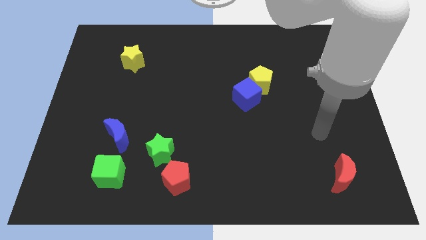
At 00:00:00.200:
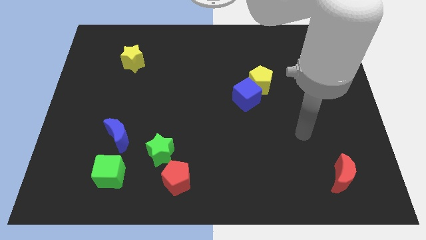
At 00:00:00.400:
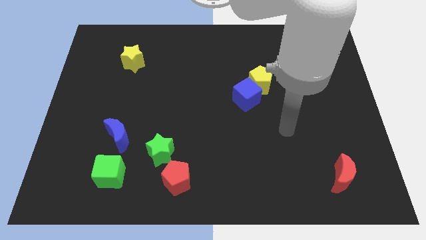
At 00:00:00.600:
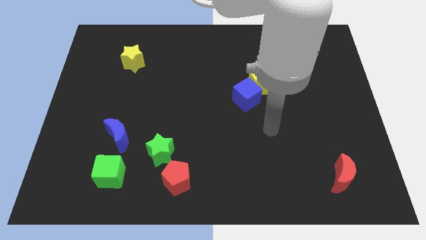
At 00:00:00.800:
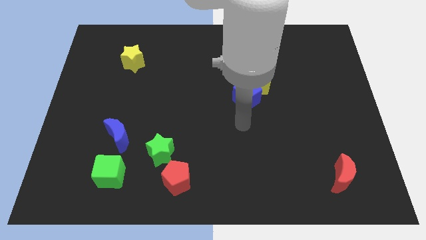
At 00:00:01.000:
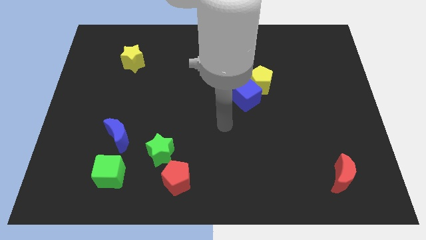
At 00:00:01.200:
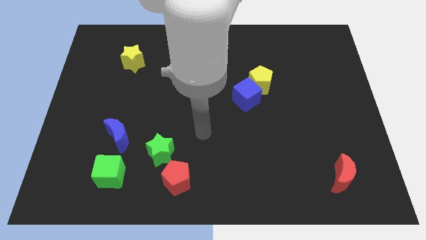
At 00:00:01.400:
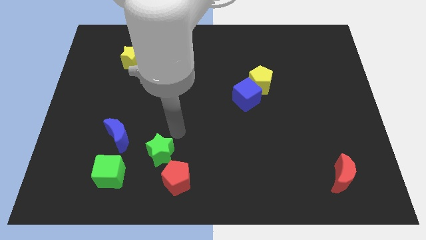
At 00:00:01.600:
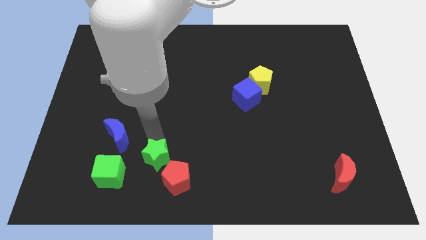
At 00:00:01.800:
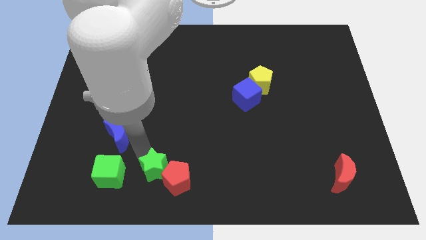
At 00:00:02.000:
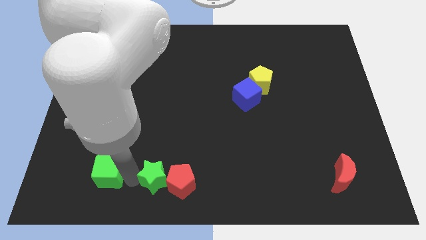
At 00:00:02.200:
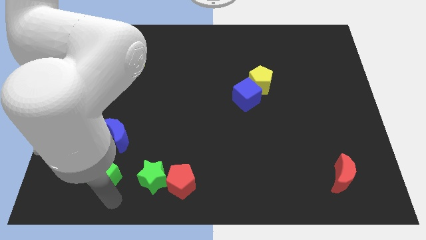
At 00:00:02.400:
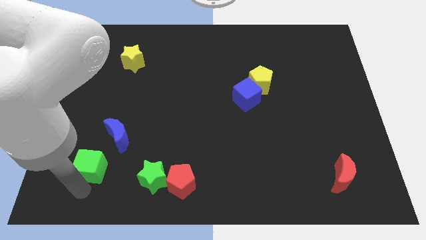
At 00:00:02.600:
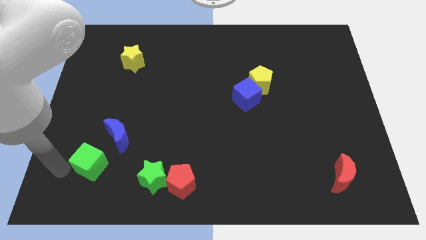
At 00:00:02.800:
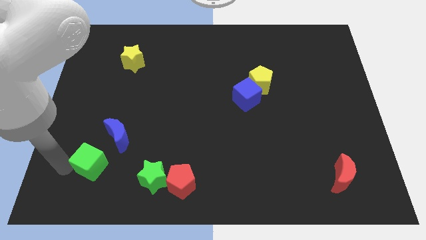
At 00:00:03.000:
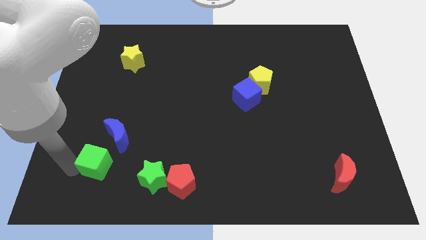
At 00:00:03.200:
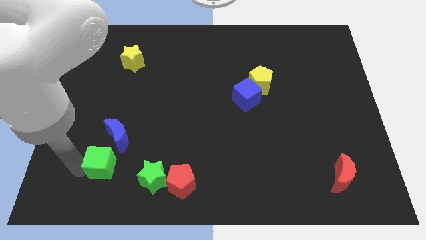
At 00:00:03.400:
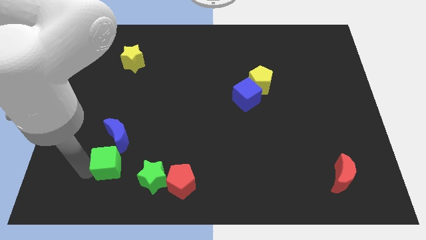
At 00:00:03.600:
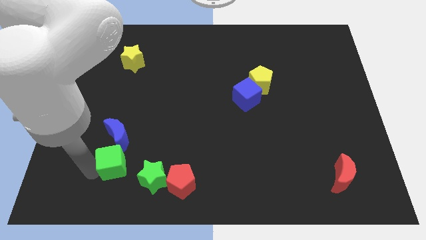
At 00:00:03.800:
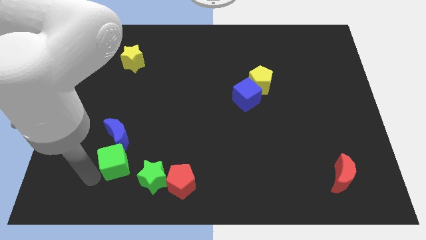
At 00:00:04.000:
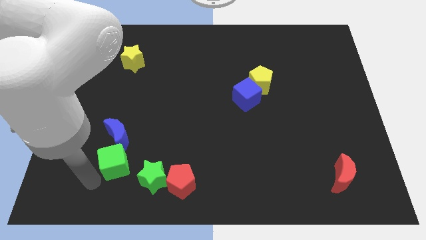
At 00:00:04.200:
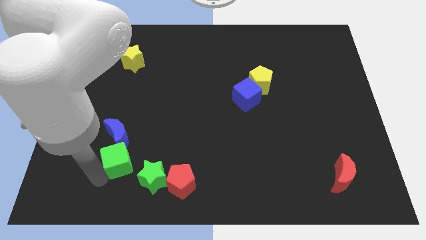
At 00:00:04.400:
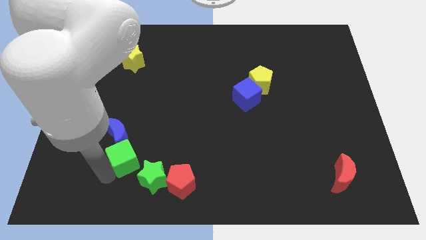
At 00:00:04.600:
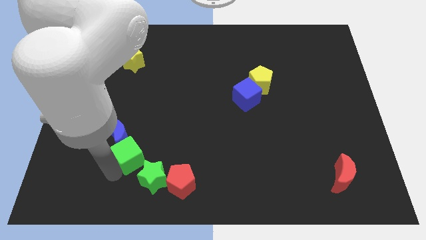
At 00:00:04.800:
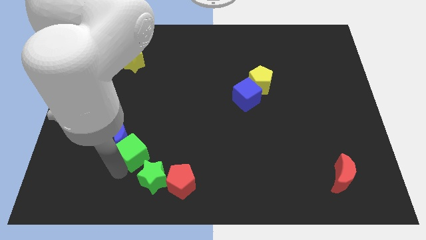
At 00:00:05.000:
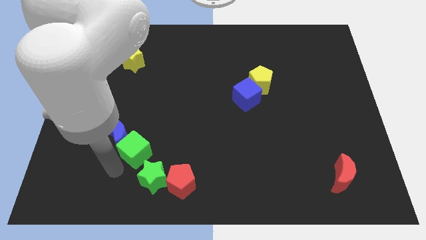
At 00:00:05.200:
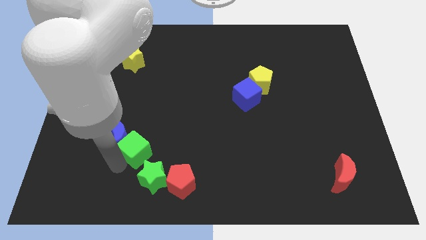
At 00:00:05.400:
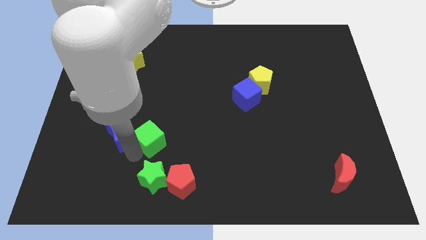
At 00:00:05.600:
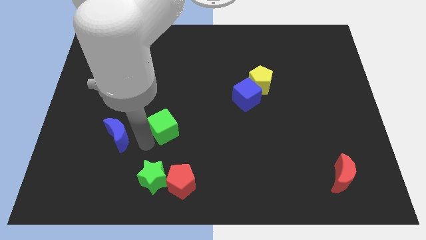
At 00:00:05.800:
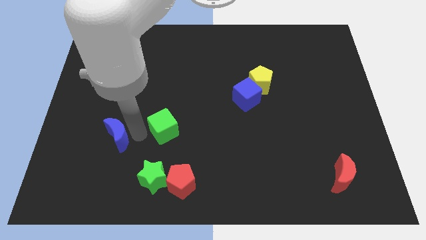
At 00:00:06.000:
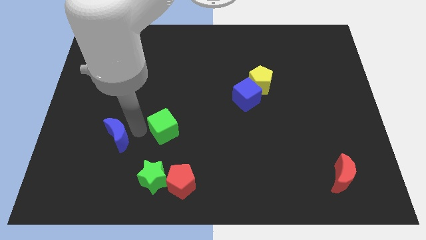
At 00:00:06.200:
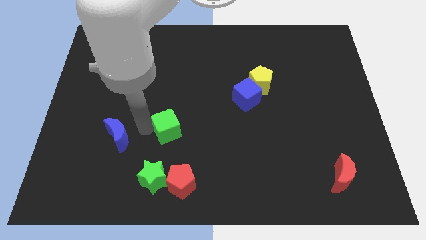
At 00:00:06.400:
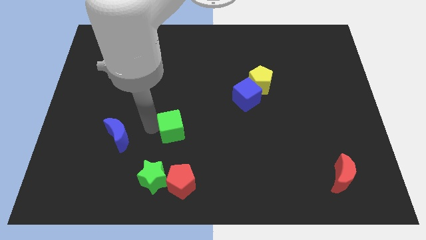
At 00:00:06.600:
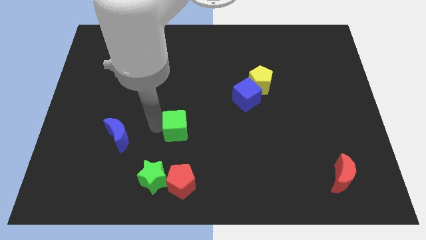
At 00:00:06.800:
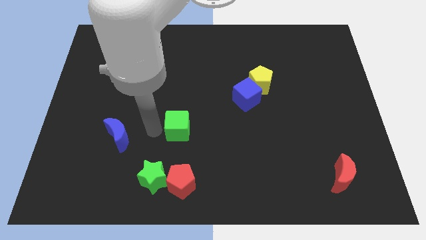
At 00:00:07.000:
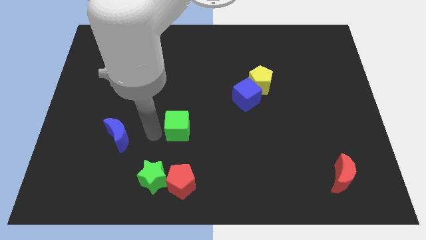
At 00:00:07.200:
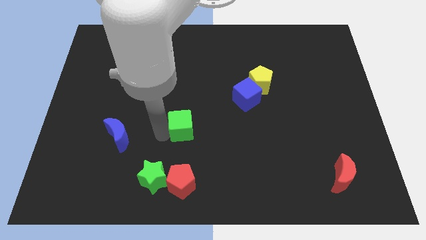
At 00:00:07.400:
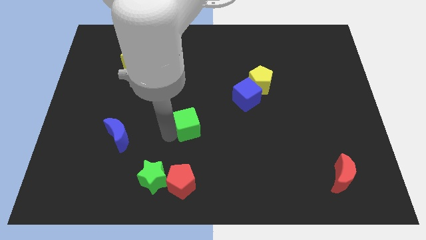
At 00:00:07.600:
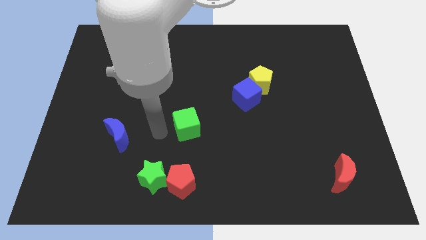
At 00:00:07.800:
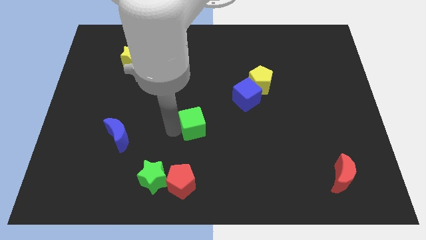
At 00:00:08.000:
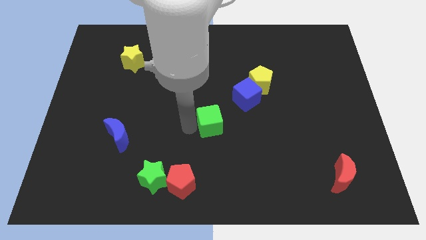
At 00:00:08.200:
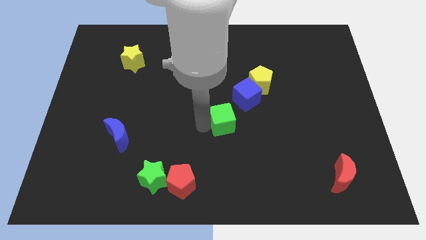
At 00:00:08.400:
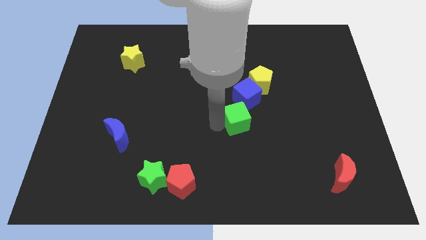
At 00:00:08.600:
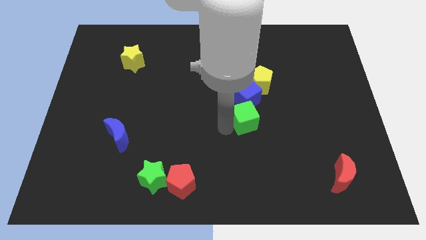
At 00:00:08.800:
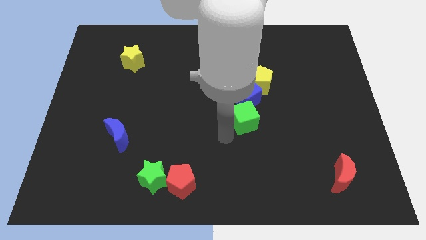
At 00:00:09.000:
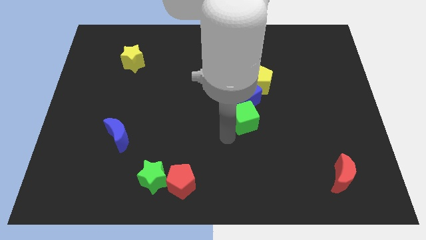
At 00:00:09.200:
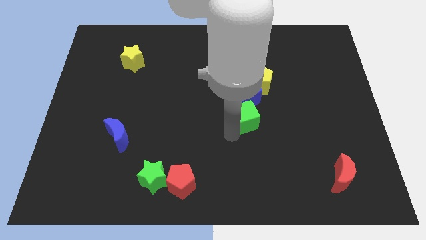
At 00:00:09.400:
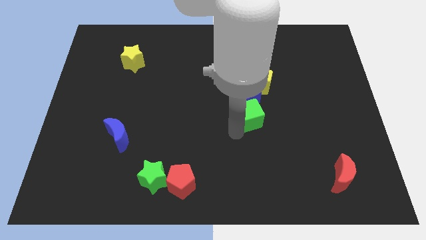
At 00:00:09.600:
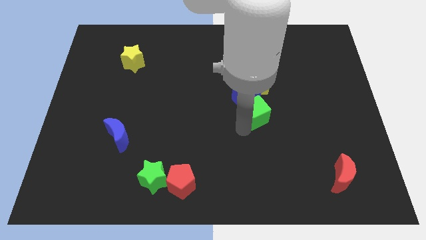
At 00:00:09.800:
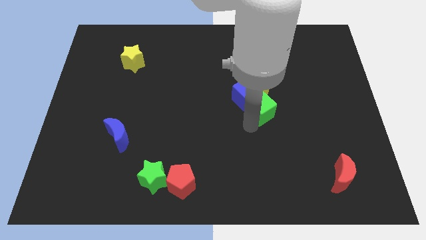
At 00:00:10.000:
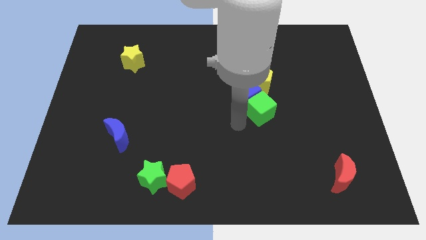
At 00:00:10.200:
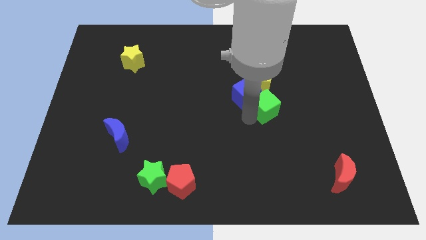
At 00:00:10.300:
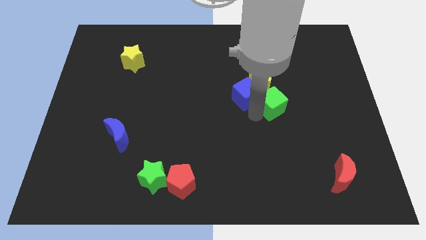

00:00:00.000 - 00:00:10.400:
put the green cube diagonally down and to the right of the yellow pentagon

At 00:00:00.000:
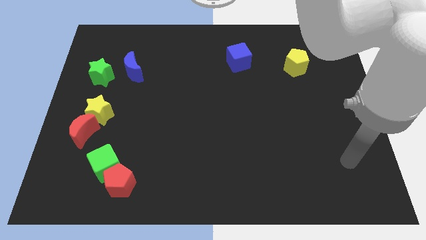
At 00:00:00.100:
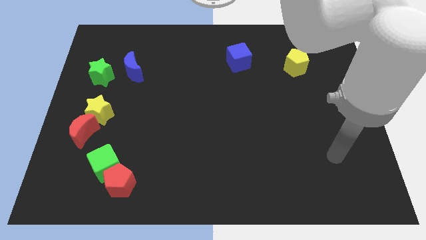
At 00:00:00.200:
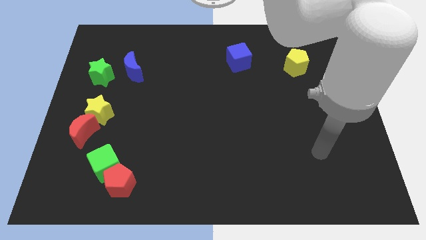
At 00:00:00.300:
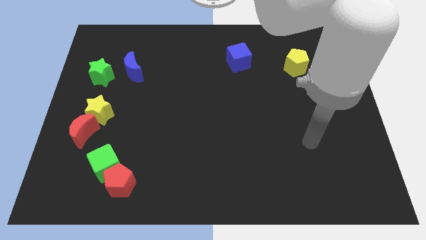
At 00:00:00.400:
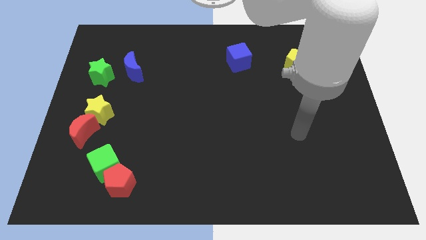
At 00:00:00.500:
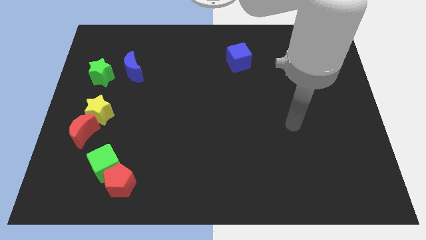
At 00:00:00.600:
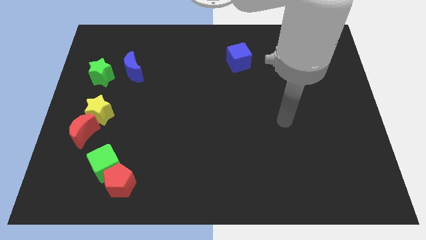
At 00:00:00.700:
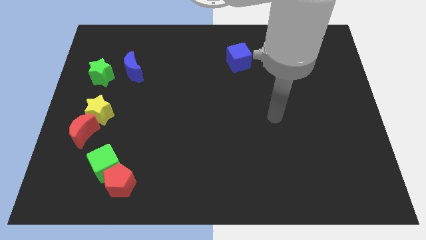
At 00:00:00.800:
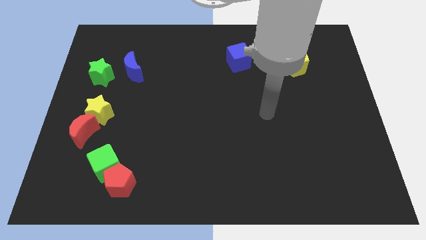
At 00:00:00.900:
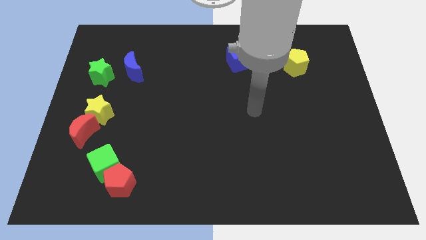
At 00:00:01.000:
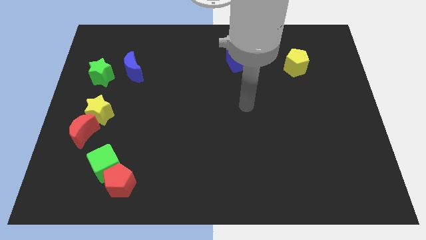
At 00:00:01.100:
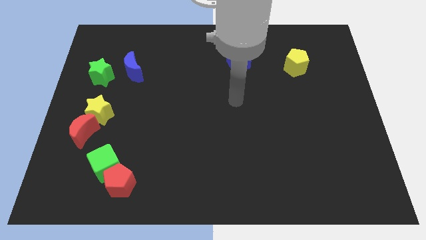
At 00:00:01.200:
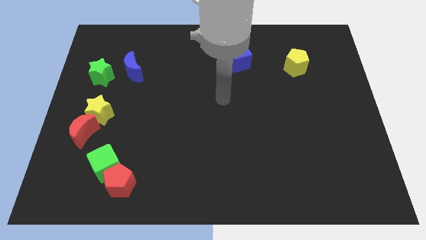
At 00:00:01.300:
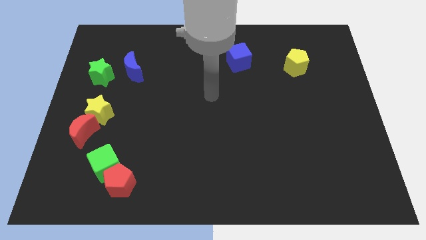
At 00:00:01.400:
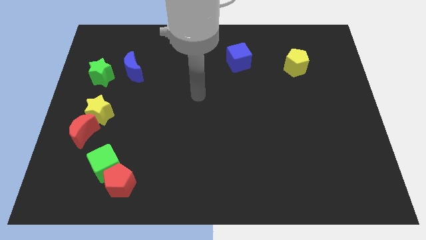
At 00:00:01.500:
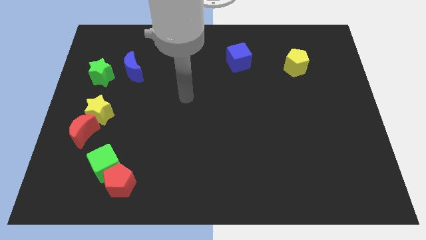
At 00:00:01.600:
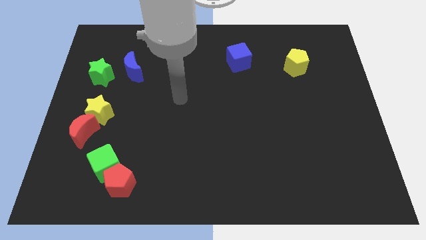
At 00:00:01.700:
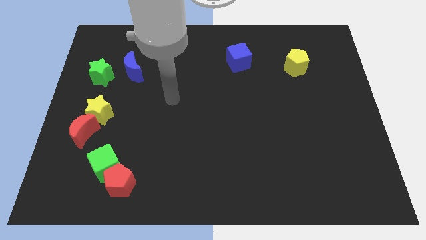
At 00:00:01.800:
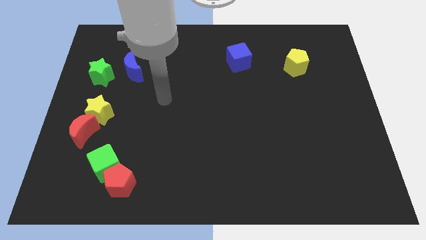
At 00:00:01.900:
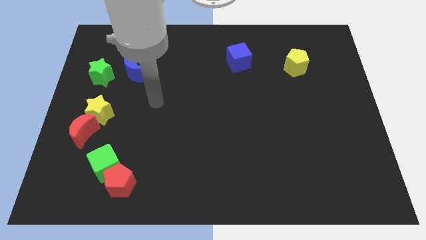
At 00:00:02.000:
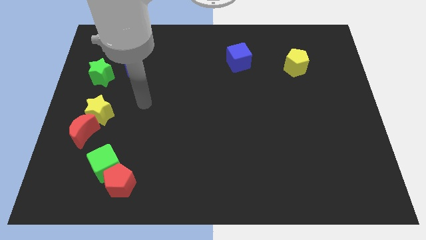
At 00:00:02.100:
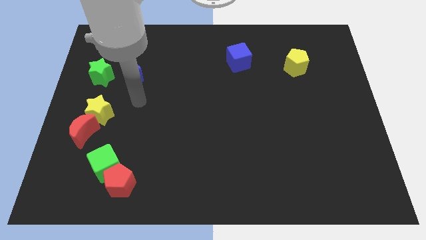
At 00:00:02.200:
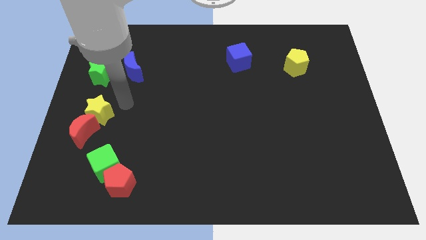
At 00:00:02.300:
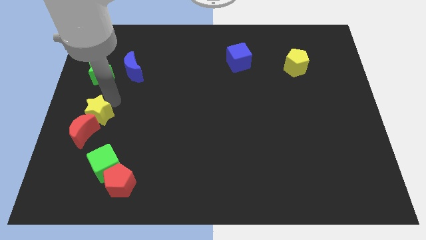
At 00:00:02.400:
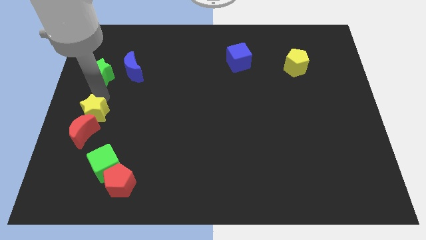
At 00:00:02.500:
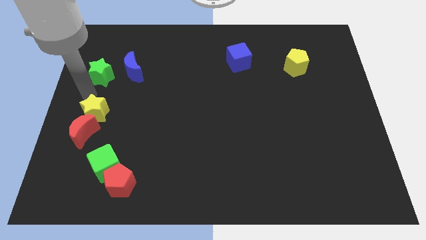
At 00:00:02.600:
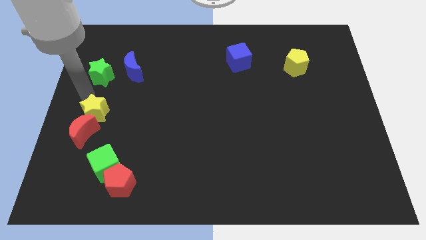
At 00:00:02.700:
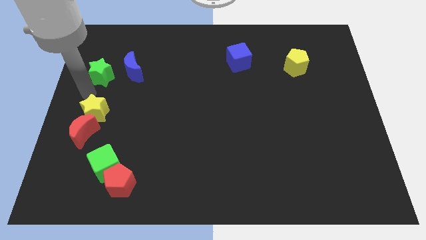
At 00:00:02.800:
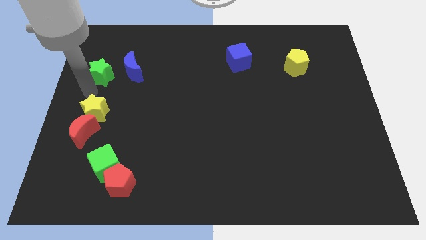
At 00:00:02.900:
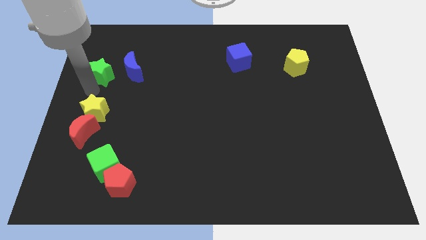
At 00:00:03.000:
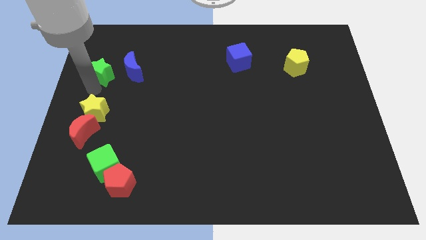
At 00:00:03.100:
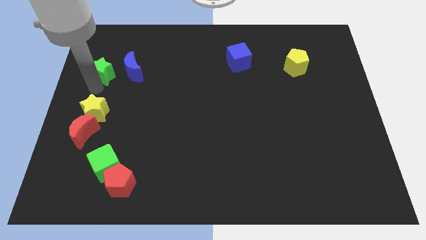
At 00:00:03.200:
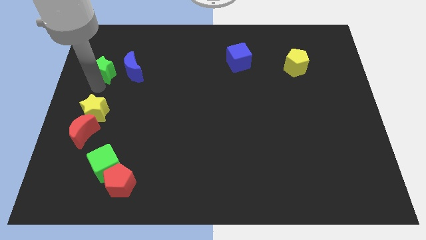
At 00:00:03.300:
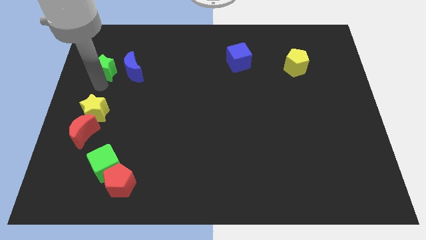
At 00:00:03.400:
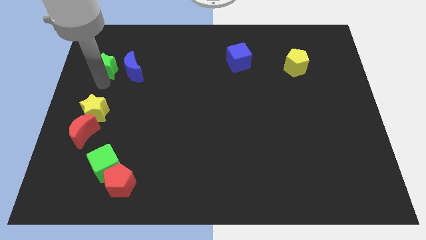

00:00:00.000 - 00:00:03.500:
slide the green star diagonally up and to the left of the blue moon
